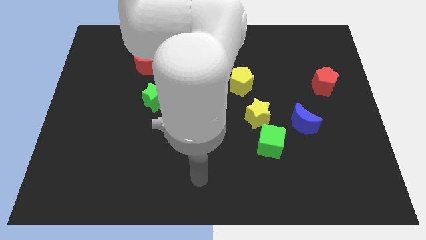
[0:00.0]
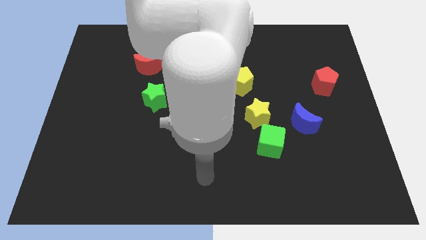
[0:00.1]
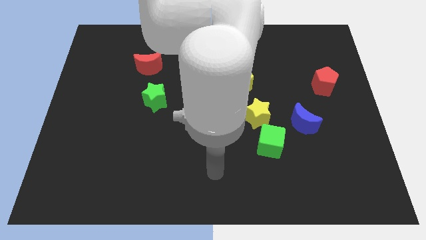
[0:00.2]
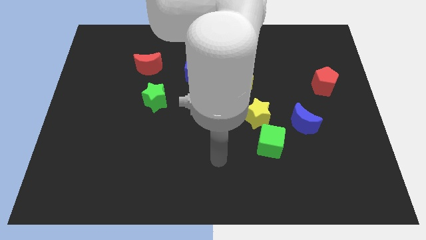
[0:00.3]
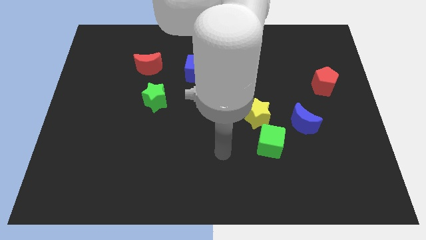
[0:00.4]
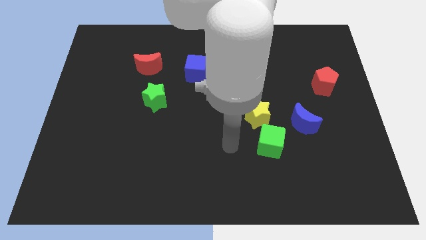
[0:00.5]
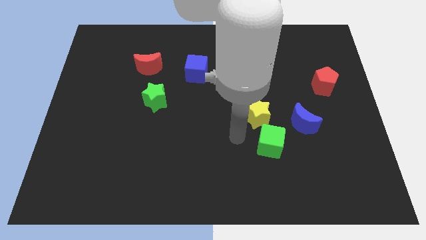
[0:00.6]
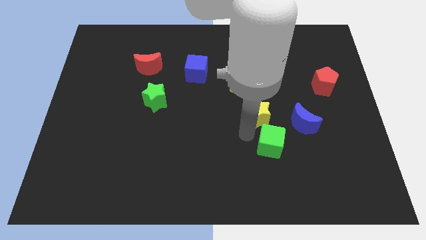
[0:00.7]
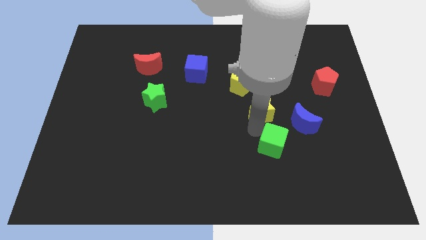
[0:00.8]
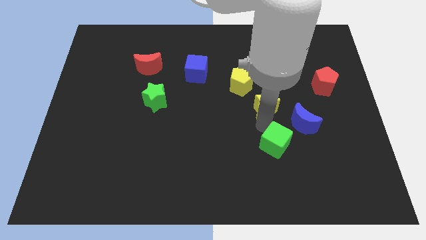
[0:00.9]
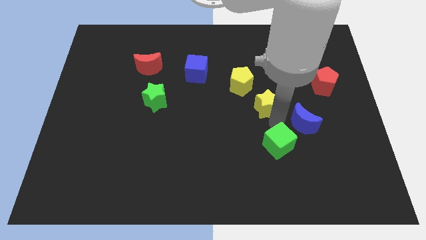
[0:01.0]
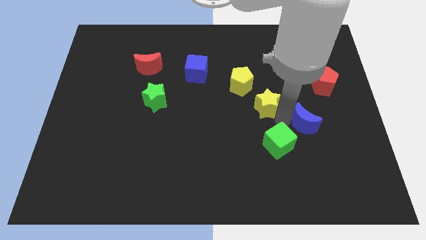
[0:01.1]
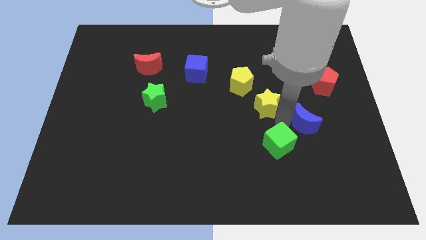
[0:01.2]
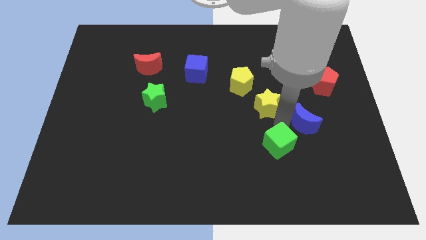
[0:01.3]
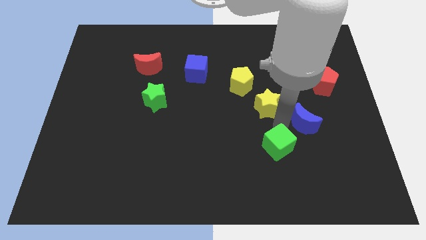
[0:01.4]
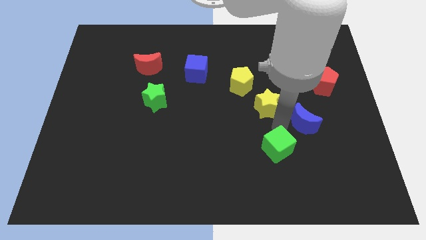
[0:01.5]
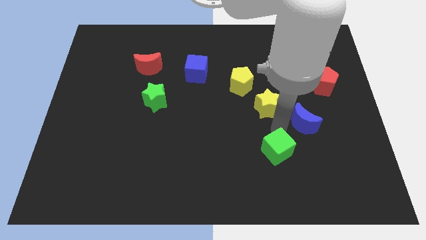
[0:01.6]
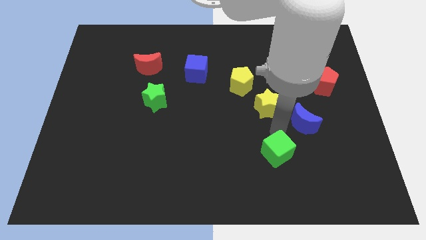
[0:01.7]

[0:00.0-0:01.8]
separate the green cube from the yellow star and blue moon

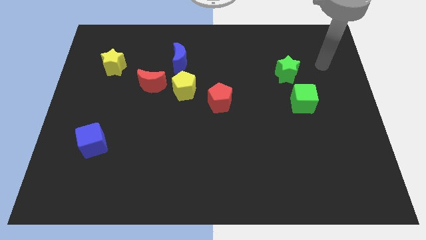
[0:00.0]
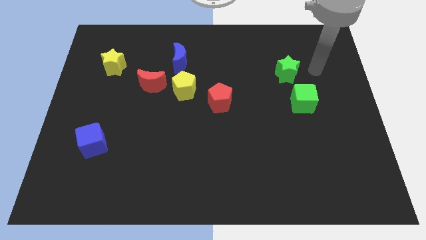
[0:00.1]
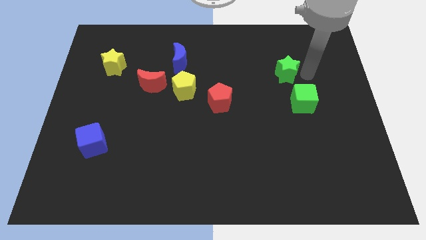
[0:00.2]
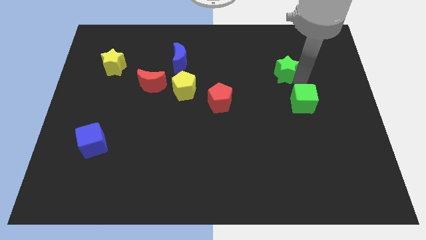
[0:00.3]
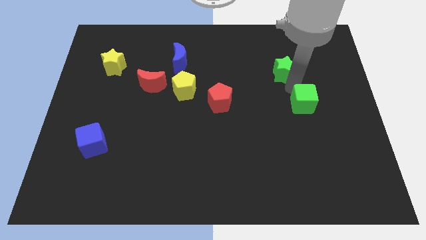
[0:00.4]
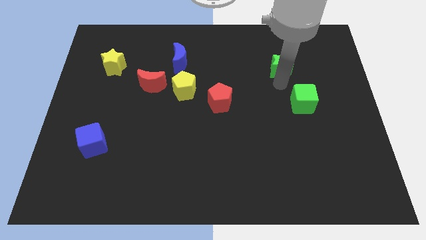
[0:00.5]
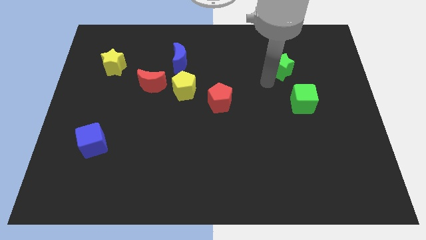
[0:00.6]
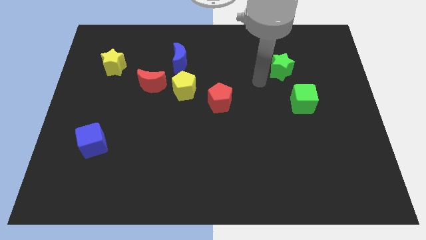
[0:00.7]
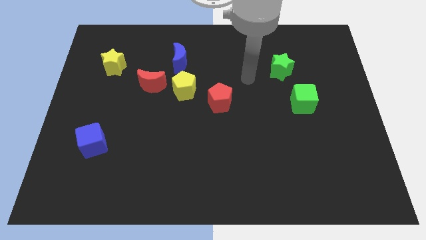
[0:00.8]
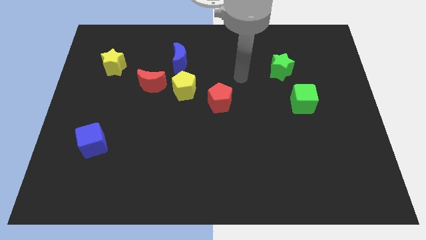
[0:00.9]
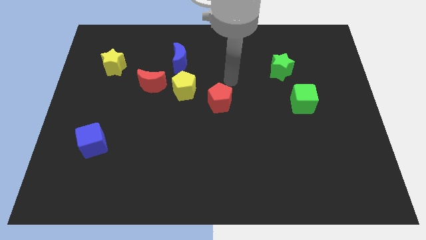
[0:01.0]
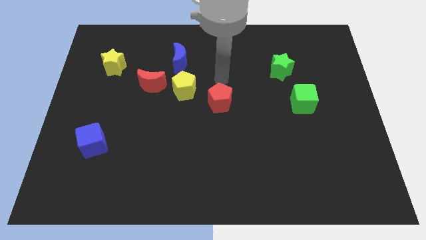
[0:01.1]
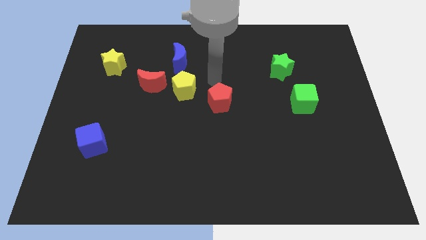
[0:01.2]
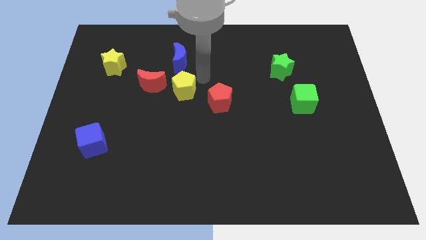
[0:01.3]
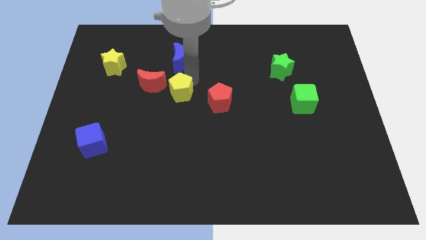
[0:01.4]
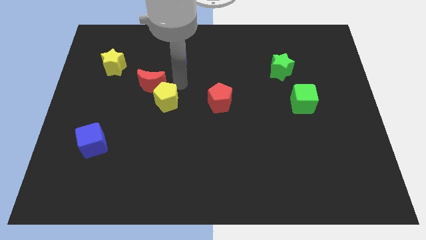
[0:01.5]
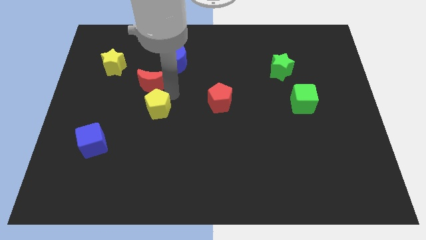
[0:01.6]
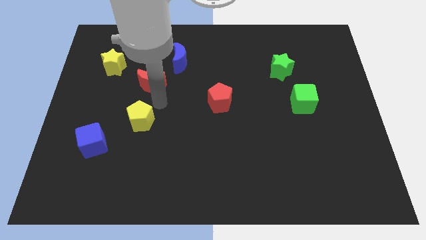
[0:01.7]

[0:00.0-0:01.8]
pull the red moon apart from the yellow pentagon

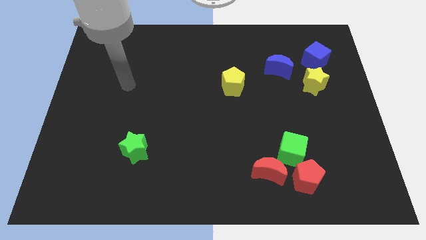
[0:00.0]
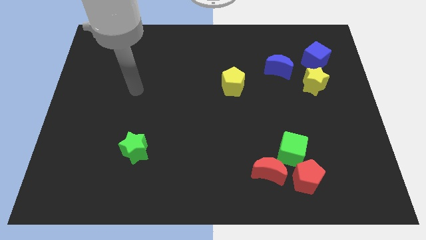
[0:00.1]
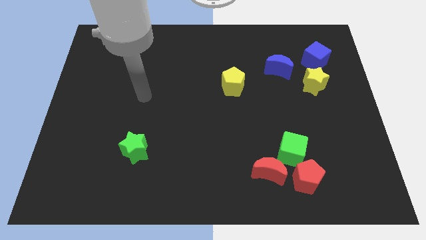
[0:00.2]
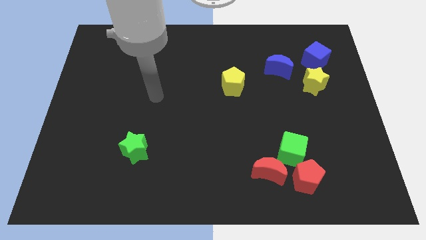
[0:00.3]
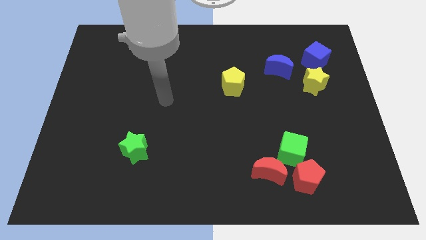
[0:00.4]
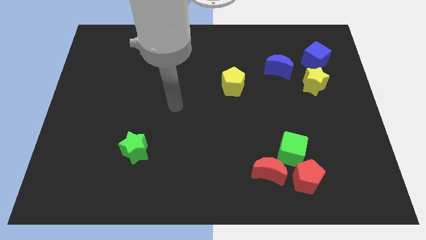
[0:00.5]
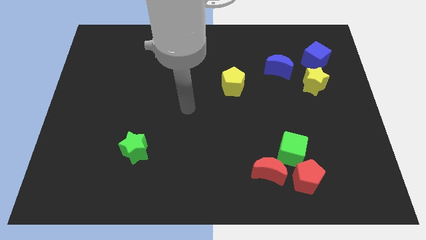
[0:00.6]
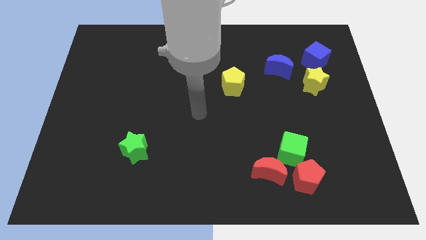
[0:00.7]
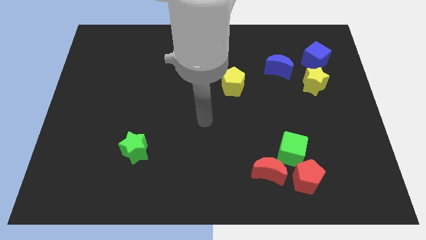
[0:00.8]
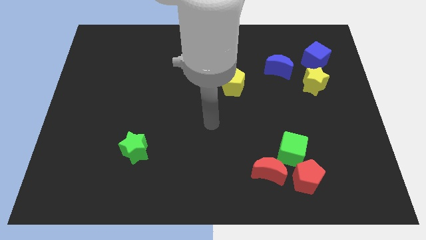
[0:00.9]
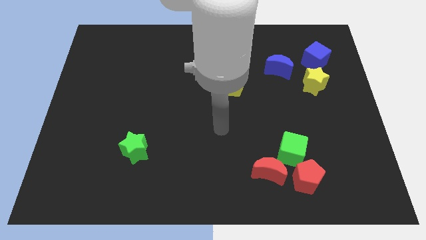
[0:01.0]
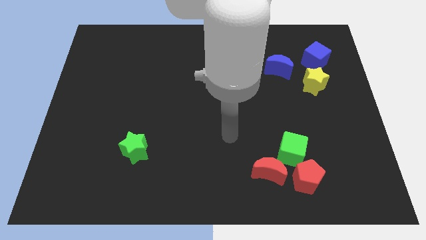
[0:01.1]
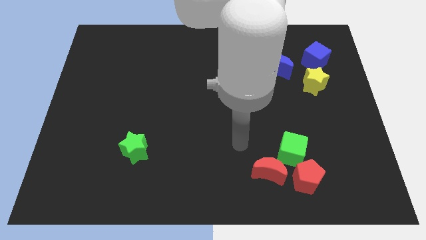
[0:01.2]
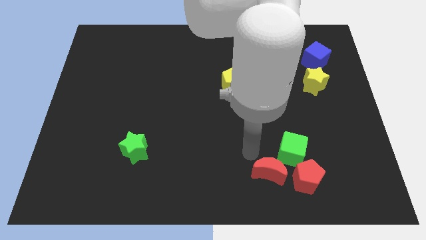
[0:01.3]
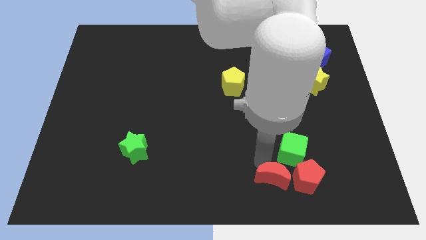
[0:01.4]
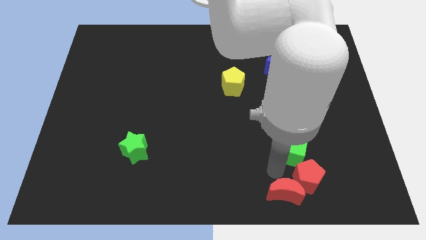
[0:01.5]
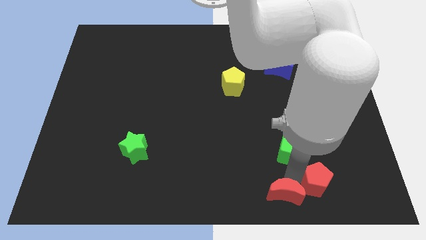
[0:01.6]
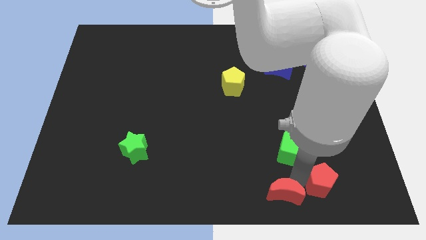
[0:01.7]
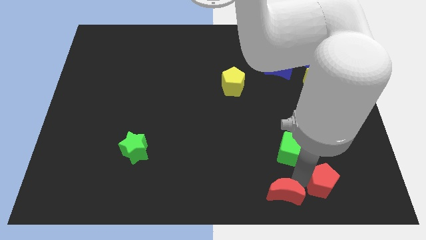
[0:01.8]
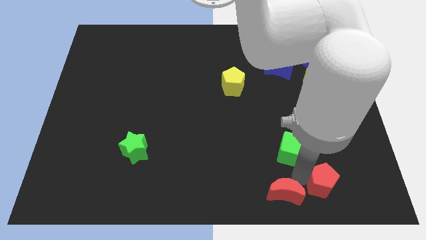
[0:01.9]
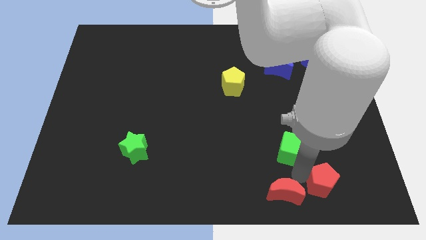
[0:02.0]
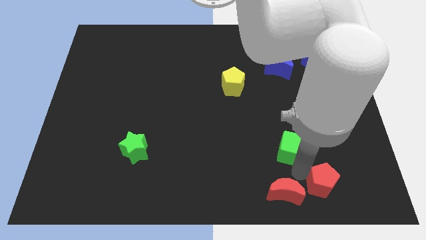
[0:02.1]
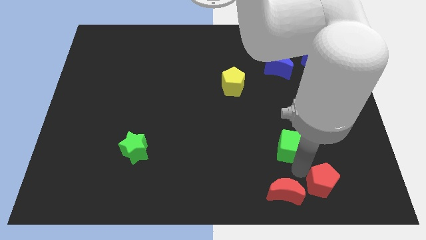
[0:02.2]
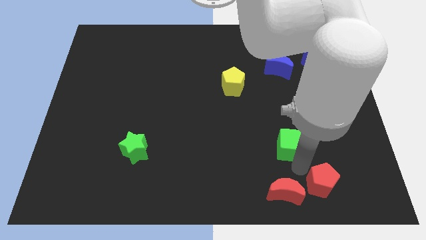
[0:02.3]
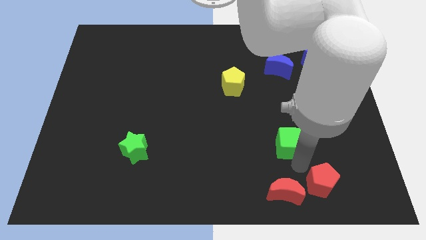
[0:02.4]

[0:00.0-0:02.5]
separate the green cube from the red pentagon and red moon

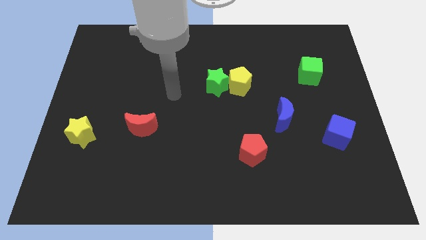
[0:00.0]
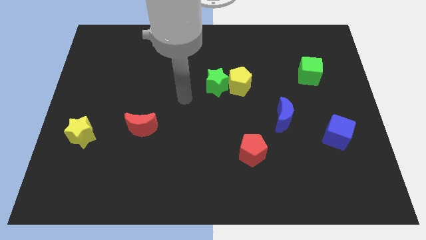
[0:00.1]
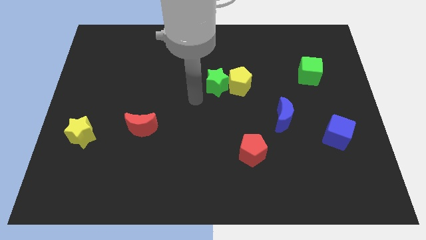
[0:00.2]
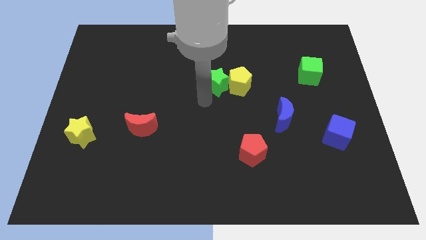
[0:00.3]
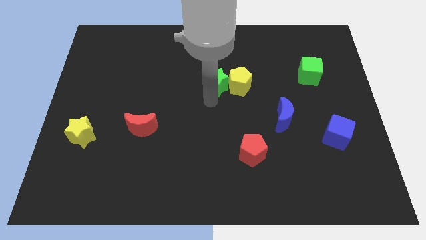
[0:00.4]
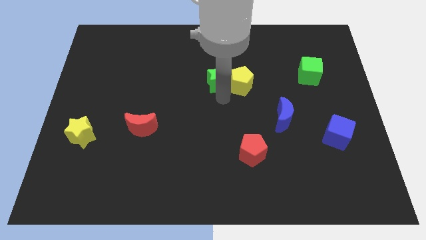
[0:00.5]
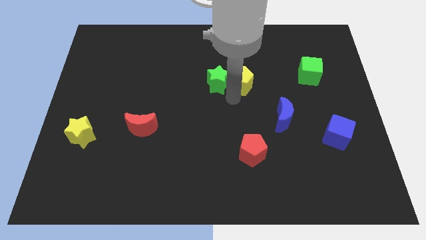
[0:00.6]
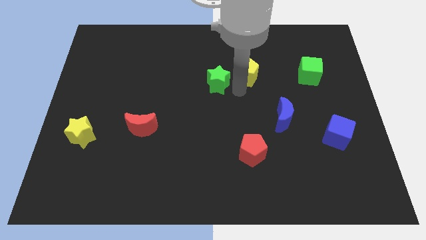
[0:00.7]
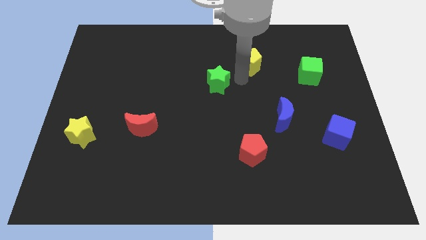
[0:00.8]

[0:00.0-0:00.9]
move the green star away from the yellow pentagon

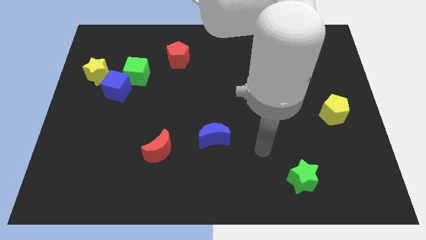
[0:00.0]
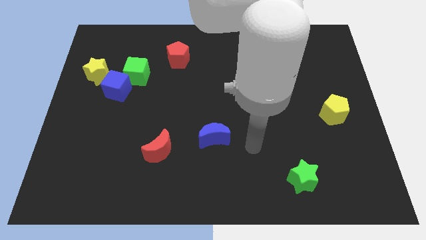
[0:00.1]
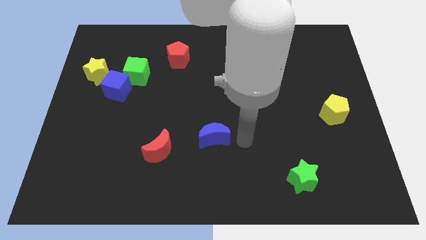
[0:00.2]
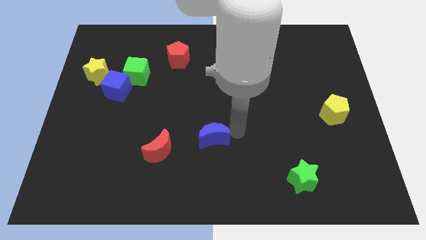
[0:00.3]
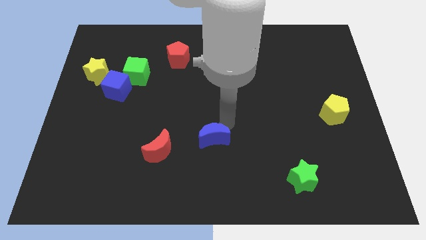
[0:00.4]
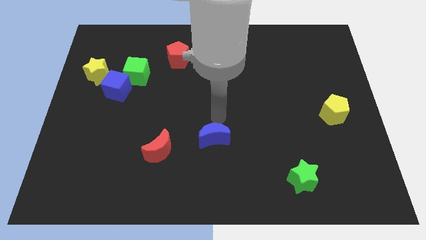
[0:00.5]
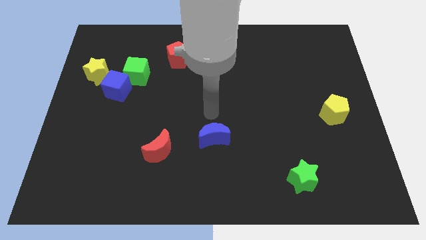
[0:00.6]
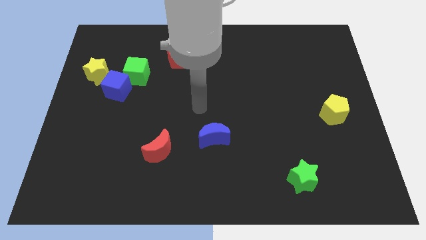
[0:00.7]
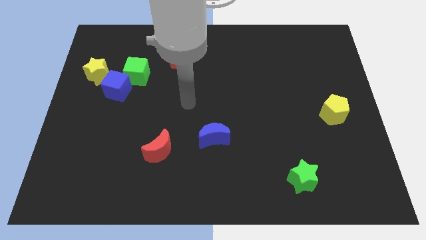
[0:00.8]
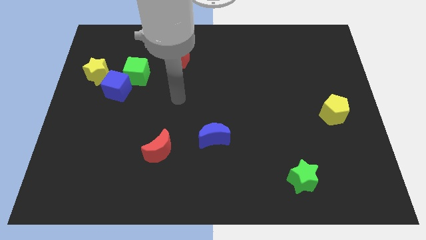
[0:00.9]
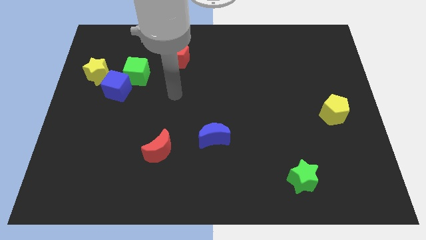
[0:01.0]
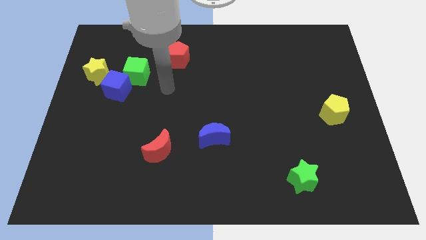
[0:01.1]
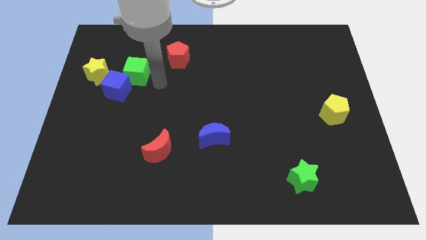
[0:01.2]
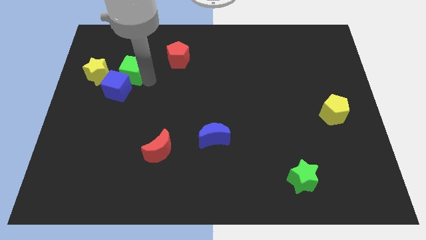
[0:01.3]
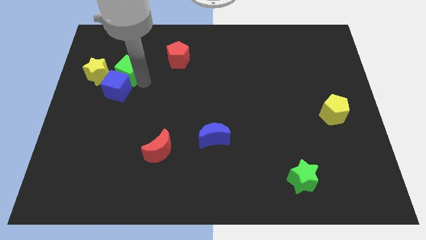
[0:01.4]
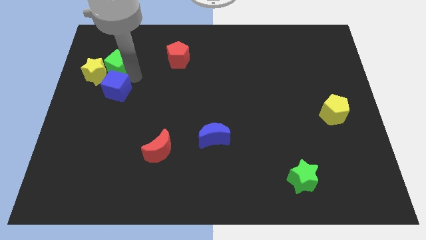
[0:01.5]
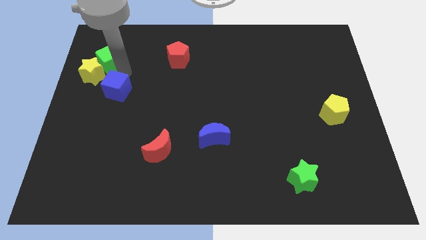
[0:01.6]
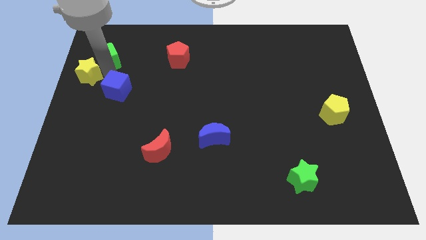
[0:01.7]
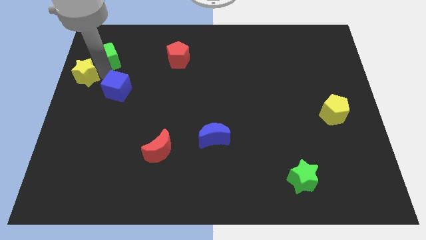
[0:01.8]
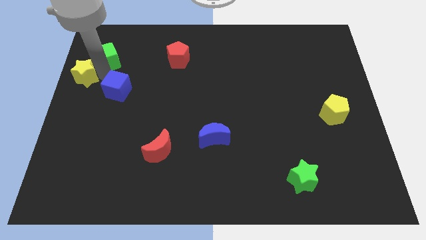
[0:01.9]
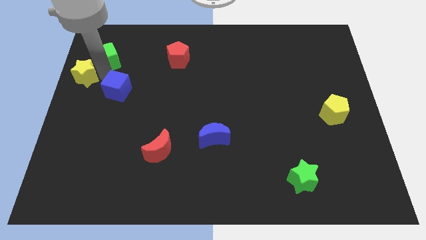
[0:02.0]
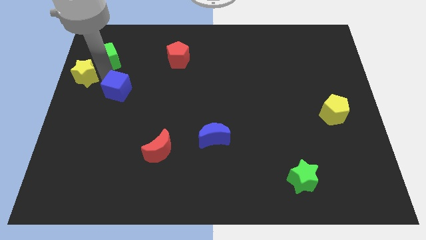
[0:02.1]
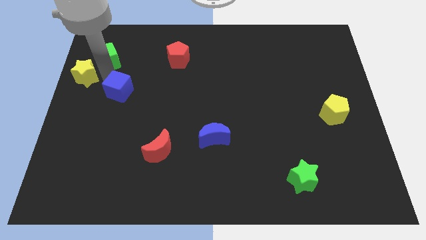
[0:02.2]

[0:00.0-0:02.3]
separate the blue cube from the green cube and yellow star
